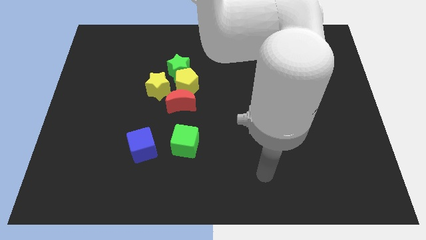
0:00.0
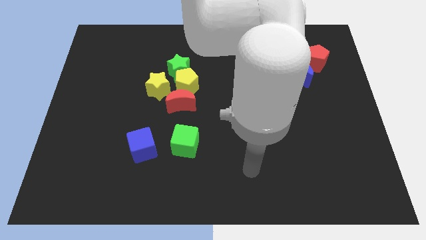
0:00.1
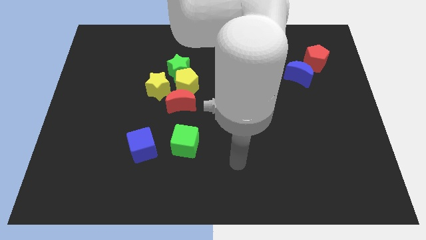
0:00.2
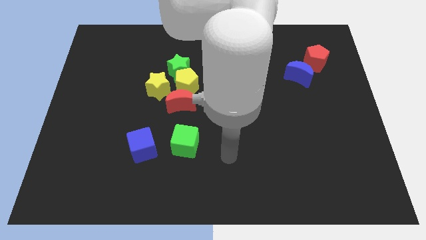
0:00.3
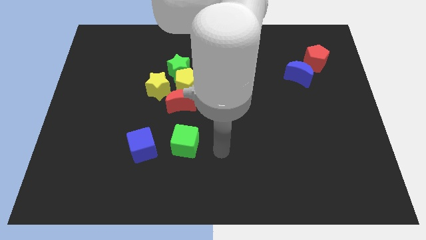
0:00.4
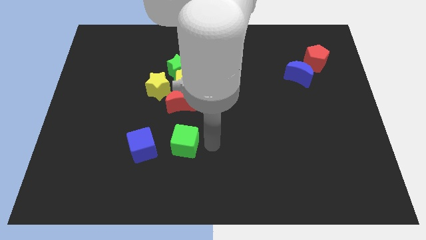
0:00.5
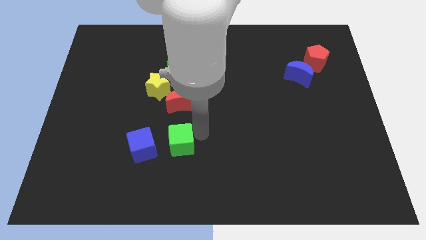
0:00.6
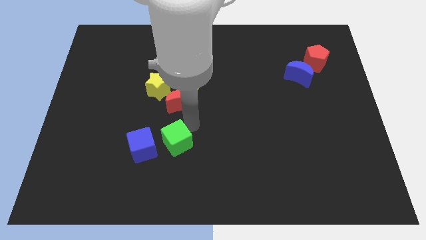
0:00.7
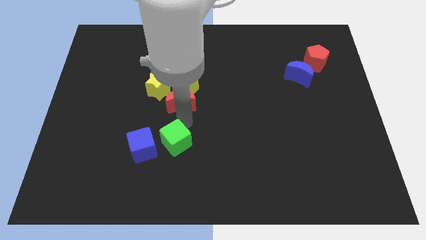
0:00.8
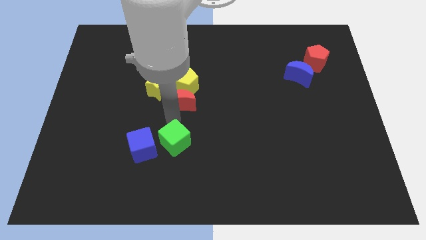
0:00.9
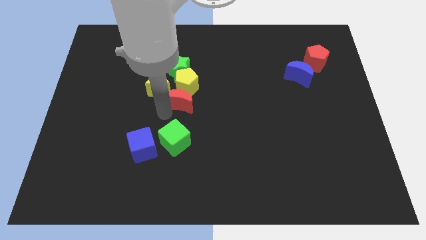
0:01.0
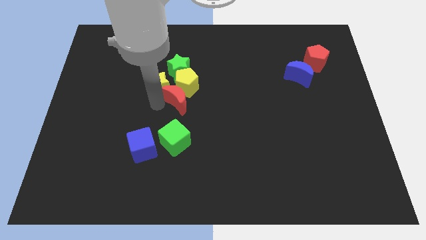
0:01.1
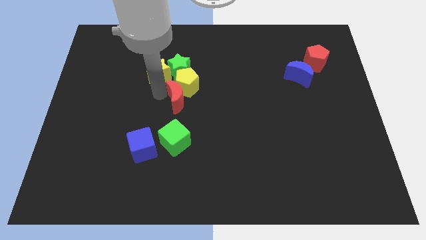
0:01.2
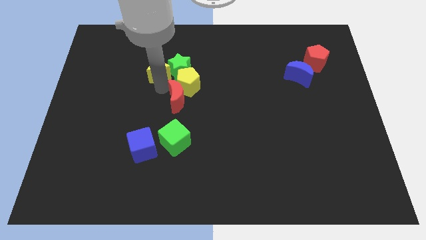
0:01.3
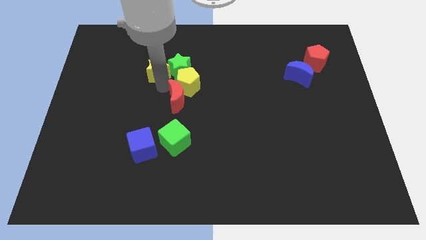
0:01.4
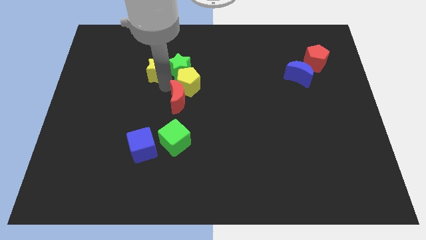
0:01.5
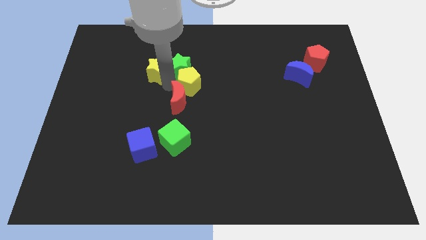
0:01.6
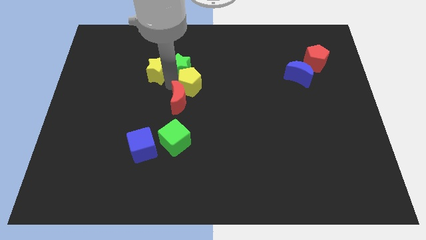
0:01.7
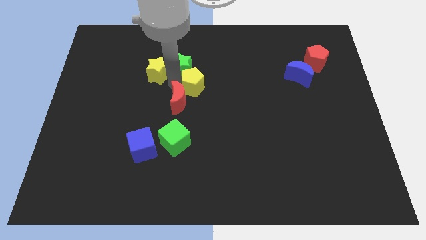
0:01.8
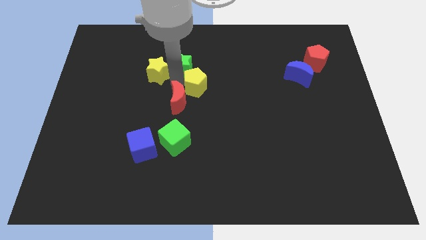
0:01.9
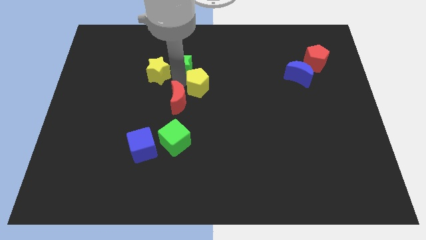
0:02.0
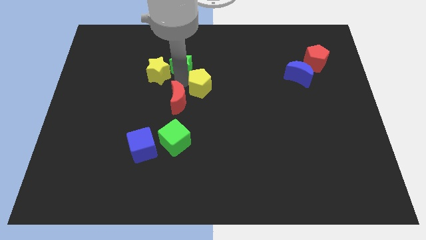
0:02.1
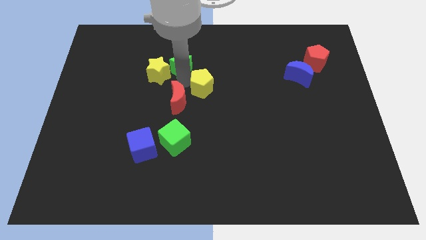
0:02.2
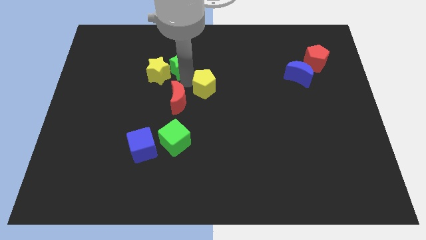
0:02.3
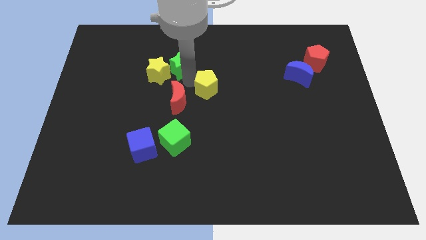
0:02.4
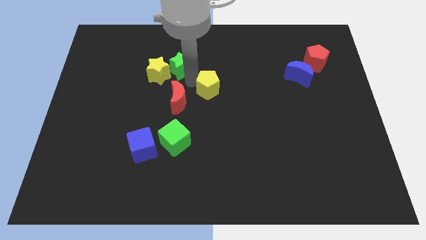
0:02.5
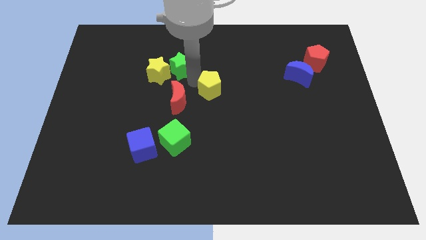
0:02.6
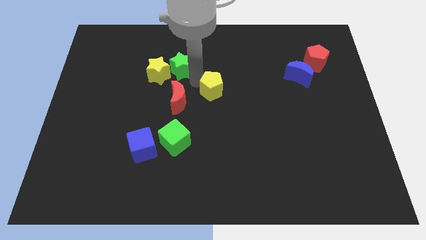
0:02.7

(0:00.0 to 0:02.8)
separate the yellow pentagon from the green star, red moon, and yellow star

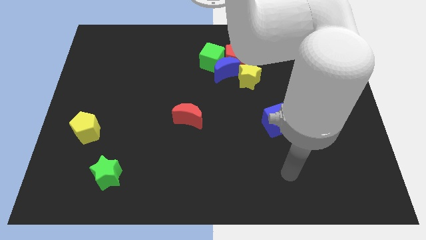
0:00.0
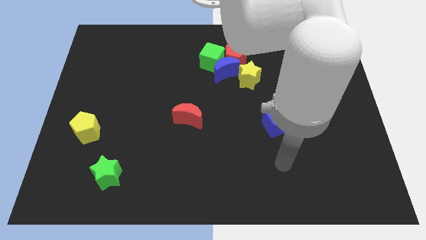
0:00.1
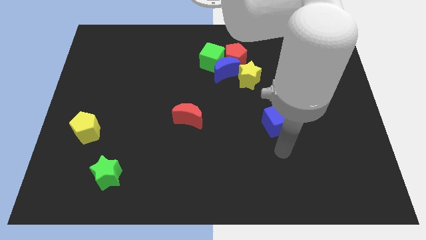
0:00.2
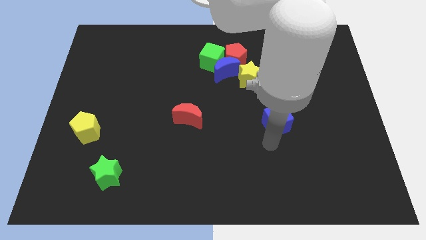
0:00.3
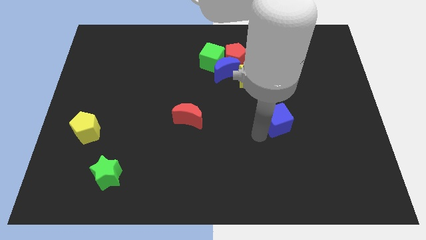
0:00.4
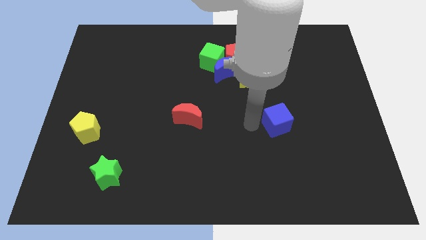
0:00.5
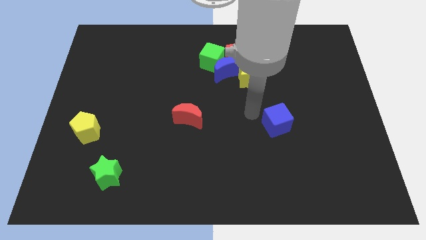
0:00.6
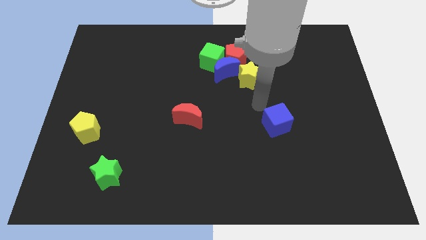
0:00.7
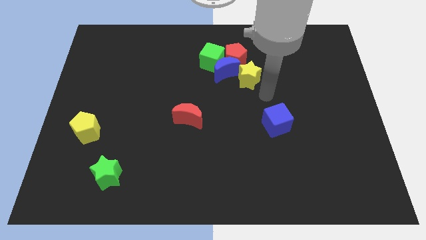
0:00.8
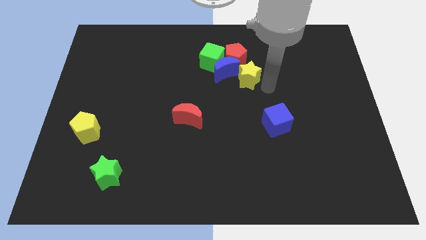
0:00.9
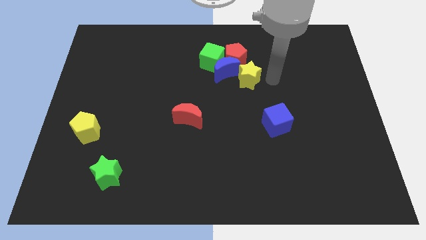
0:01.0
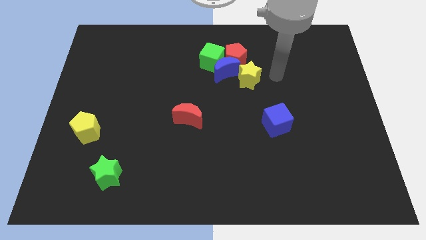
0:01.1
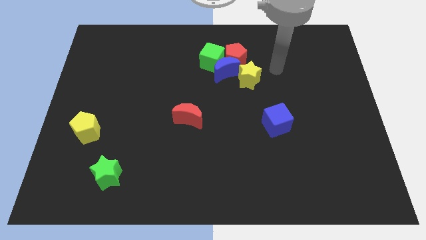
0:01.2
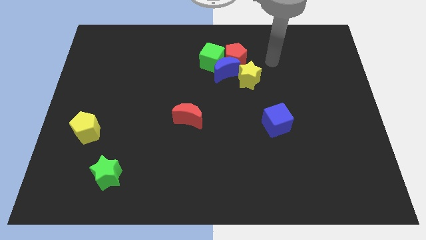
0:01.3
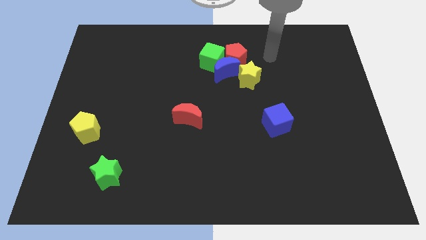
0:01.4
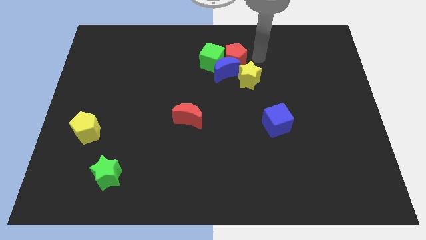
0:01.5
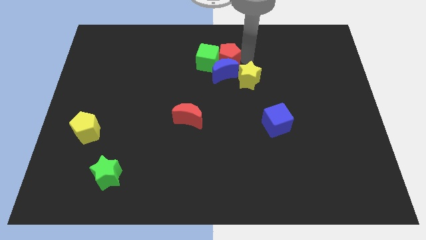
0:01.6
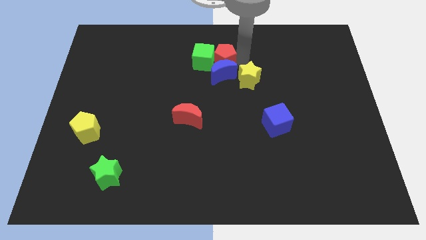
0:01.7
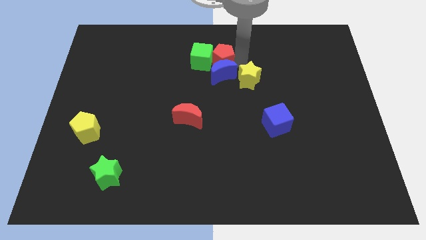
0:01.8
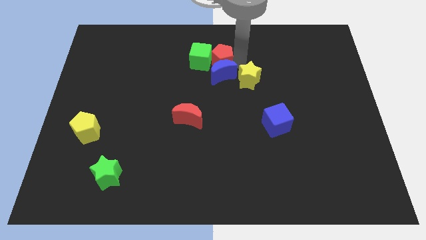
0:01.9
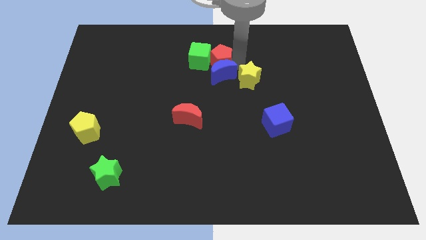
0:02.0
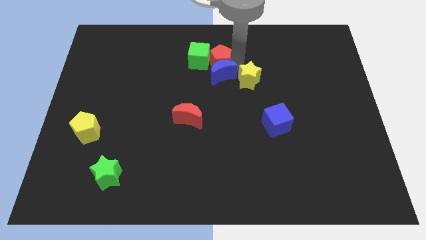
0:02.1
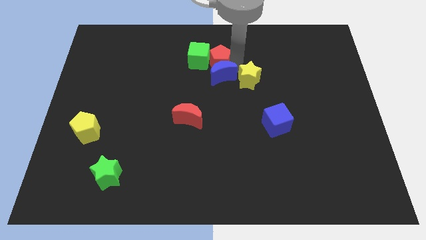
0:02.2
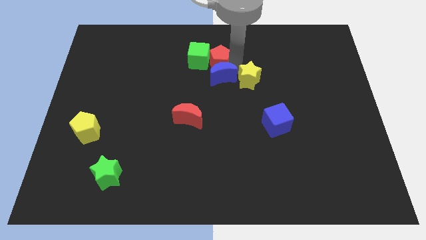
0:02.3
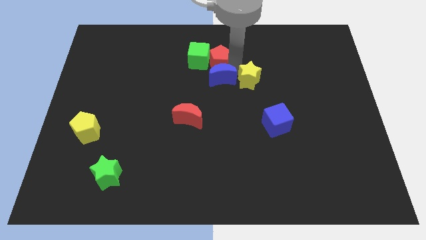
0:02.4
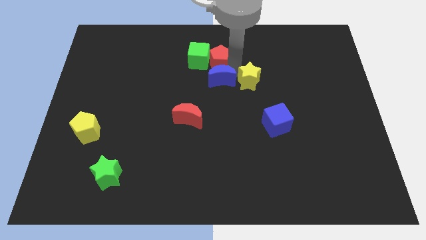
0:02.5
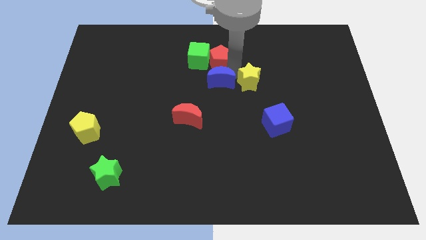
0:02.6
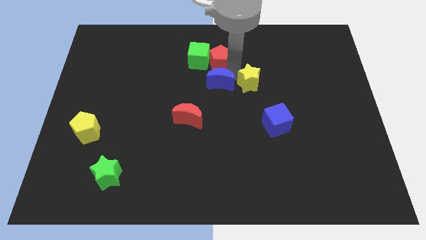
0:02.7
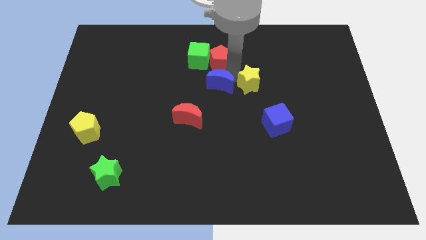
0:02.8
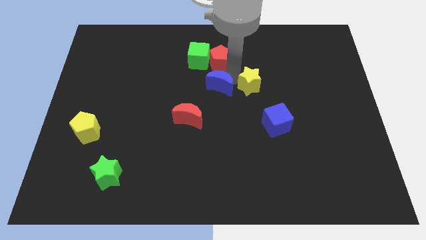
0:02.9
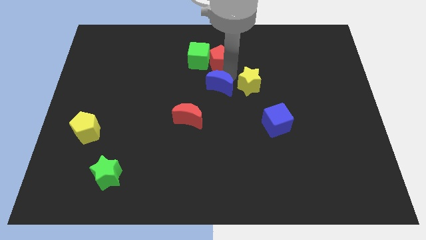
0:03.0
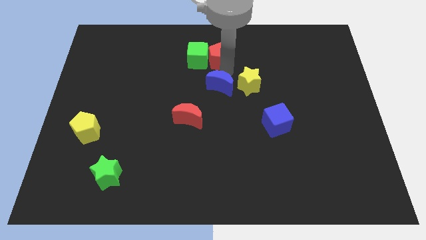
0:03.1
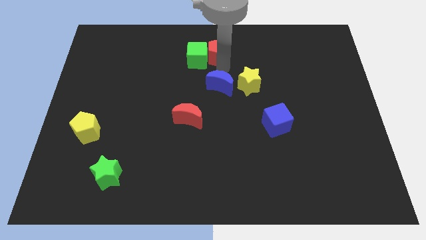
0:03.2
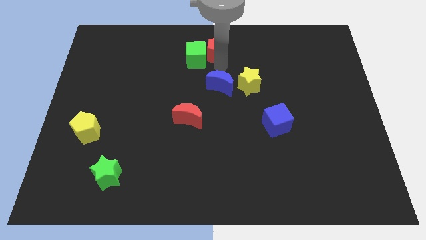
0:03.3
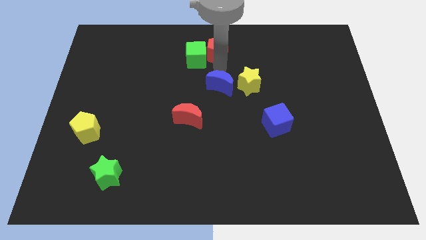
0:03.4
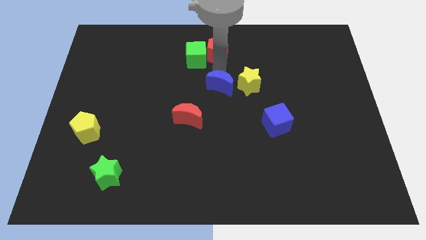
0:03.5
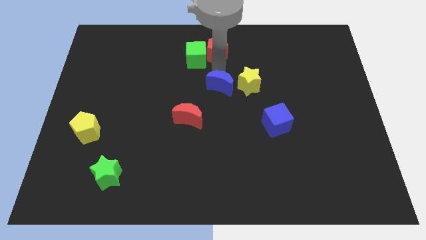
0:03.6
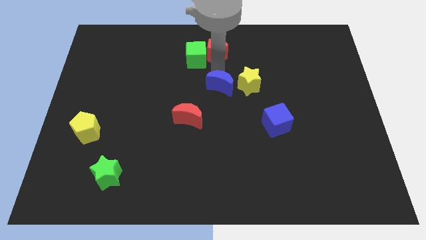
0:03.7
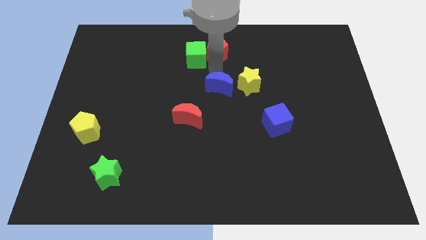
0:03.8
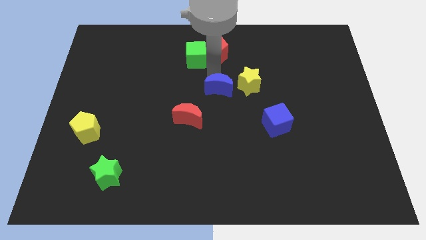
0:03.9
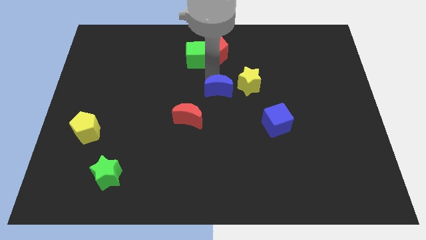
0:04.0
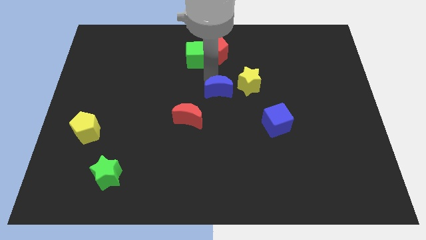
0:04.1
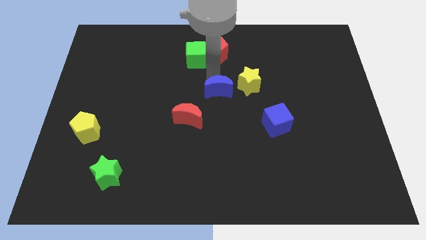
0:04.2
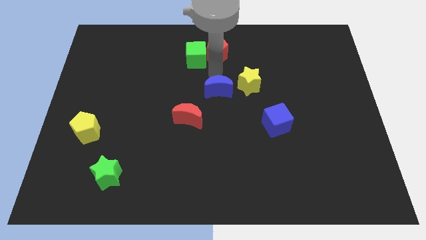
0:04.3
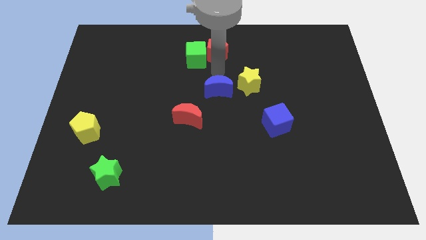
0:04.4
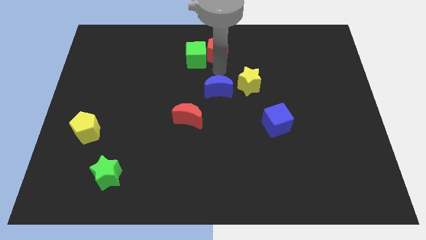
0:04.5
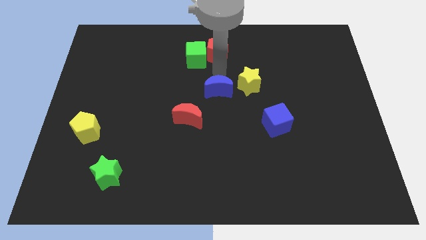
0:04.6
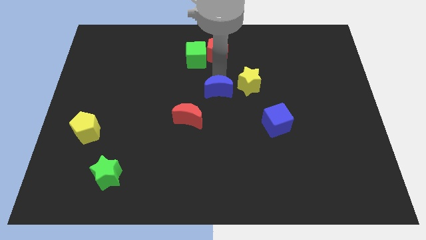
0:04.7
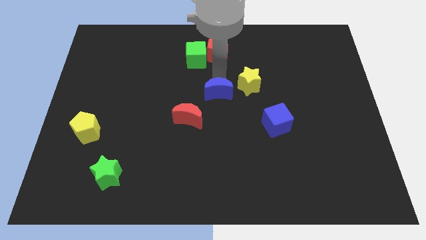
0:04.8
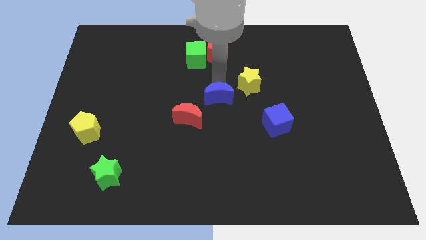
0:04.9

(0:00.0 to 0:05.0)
separate the blue moon from the red pentagon, green cube, and yellow star

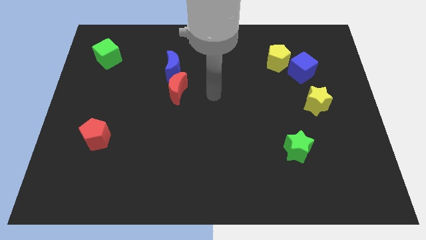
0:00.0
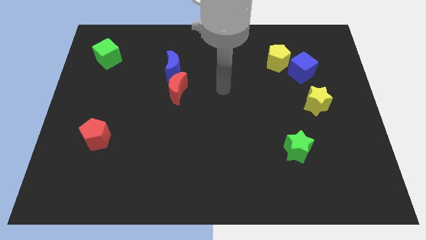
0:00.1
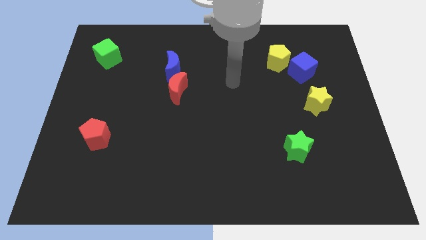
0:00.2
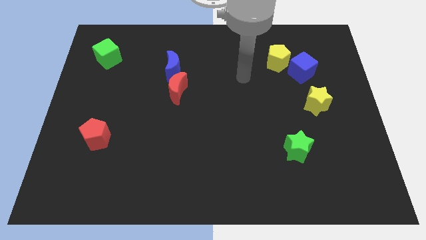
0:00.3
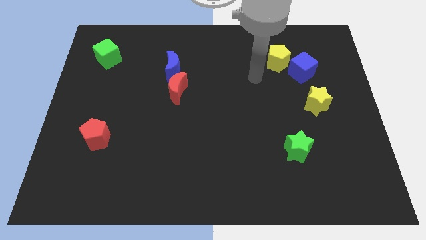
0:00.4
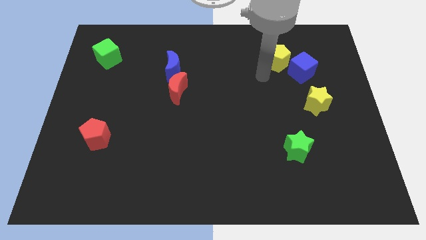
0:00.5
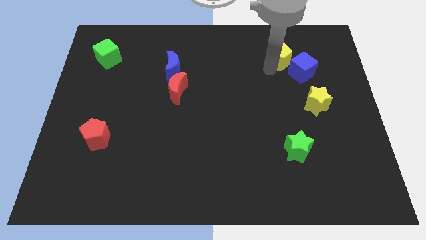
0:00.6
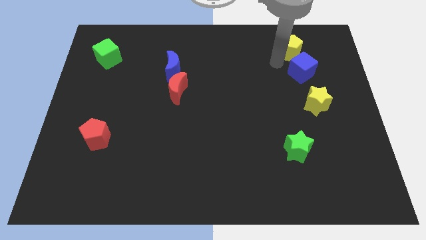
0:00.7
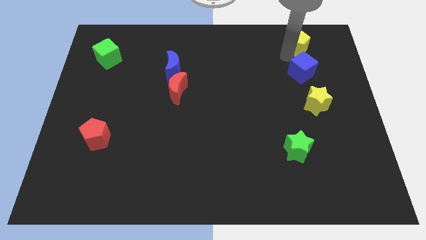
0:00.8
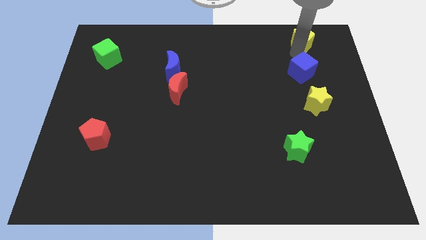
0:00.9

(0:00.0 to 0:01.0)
separate the blue cube from the yellow pentagon

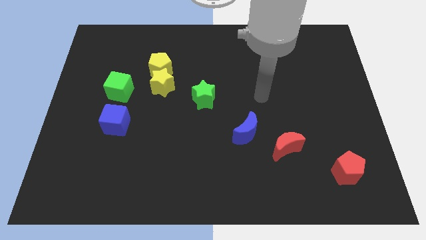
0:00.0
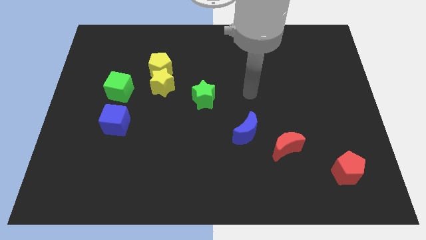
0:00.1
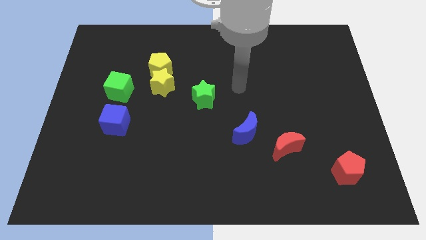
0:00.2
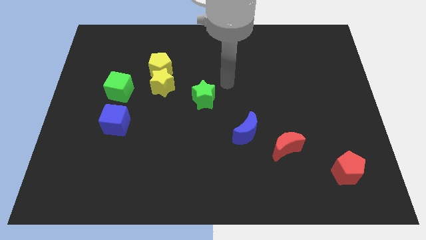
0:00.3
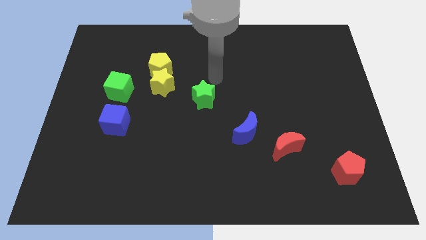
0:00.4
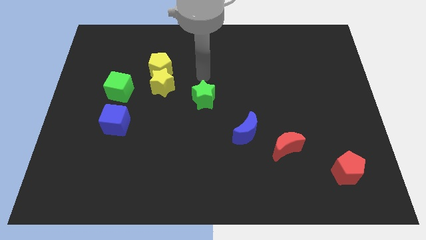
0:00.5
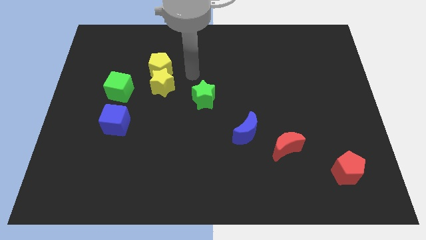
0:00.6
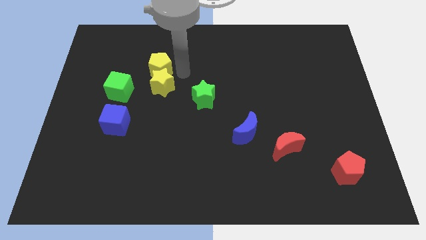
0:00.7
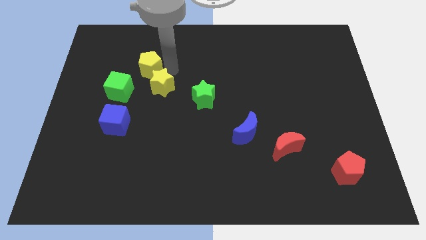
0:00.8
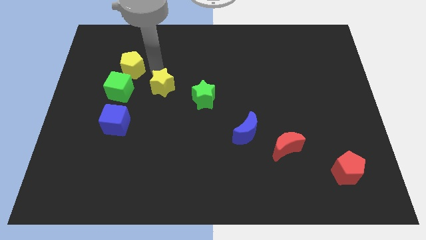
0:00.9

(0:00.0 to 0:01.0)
separate the yellow star from the yellow pentagon
